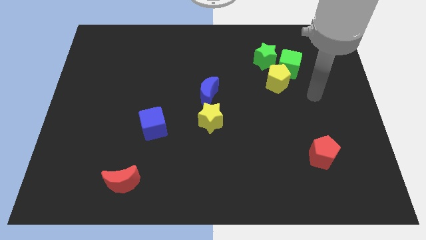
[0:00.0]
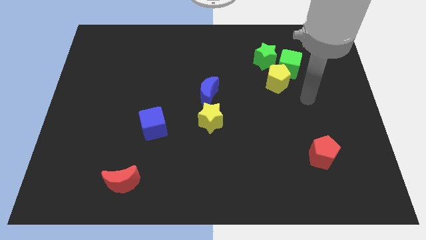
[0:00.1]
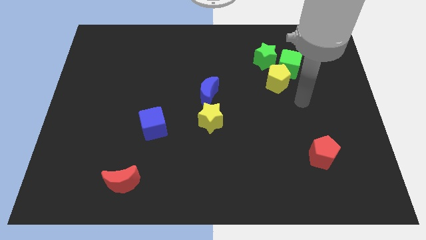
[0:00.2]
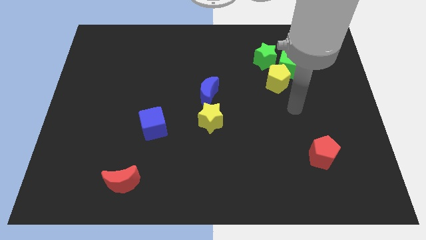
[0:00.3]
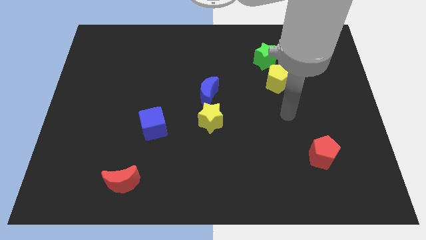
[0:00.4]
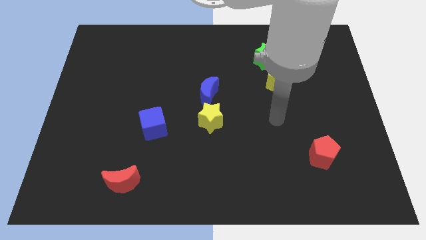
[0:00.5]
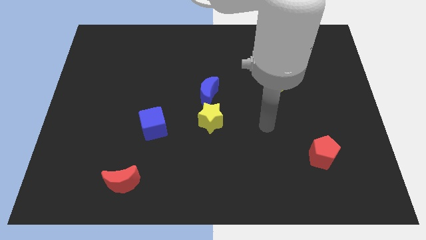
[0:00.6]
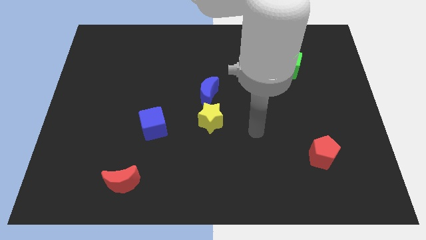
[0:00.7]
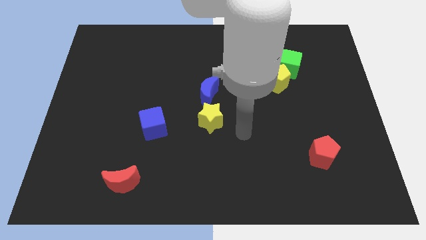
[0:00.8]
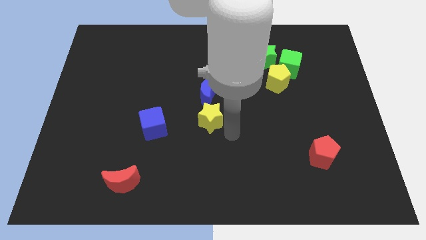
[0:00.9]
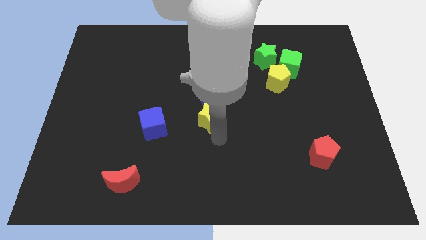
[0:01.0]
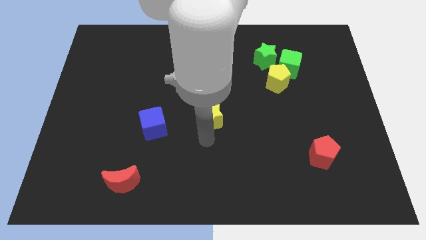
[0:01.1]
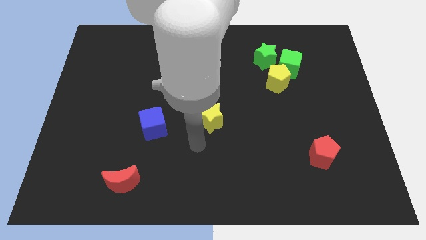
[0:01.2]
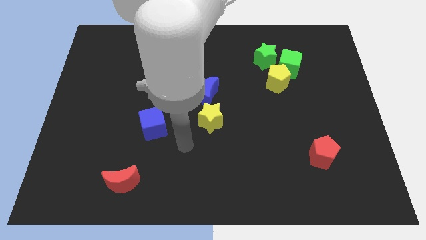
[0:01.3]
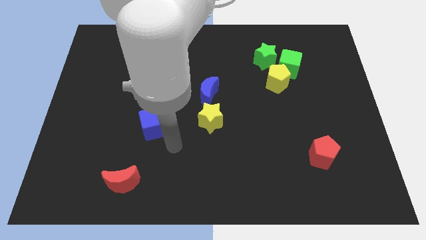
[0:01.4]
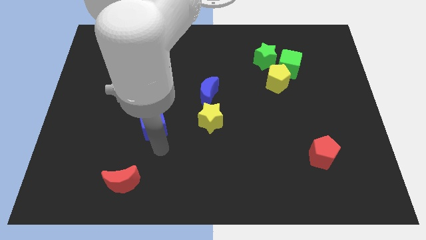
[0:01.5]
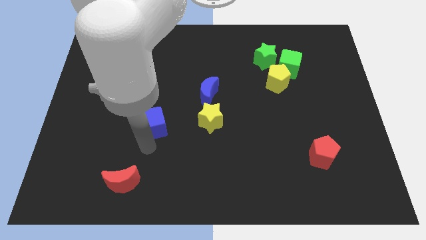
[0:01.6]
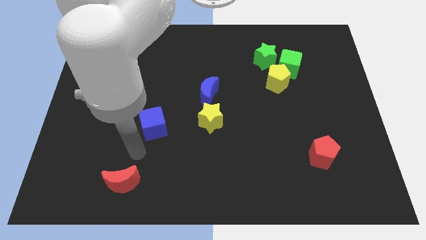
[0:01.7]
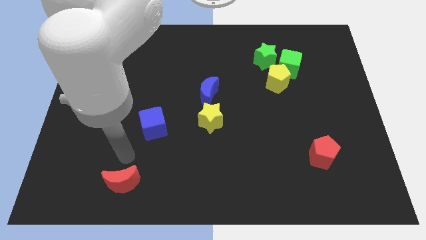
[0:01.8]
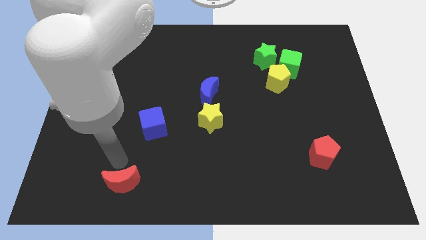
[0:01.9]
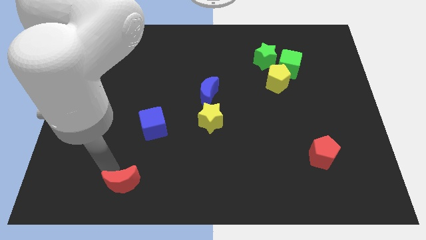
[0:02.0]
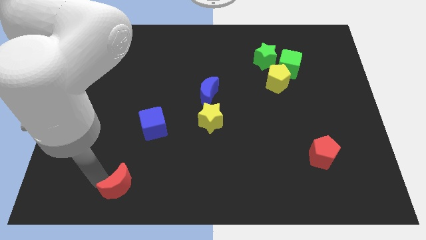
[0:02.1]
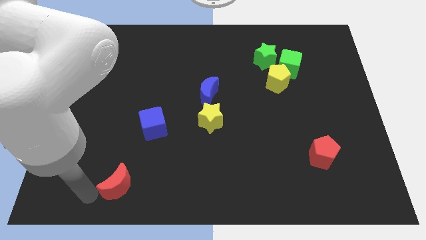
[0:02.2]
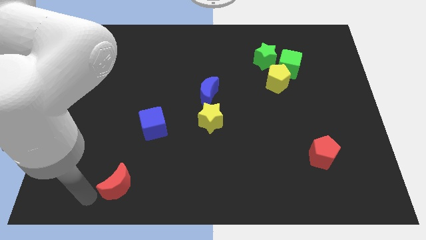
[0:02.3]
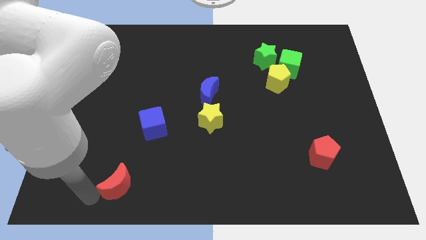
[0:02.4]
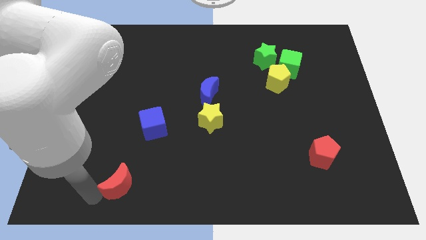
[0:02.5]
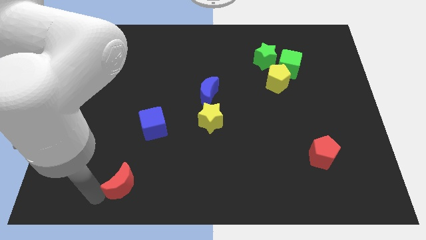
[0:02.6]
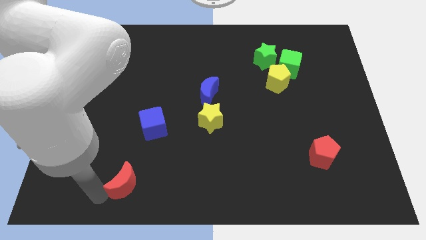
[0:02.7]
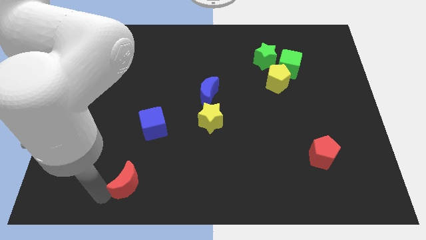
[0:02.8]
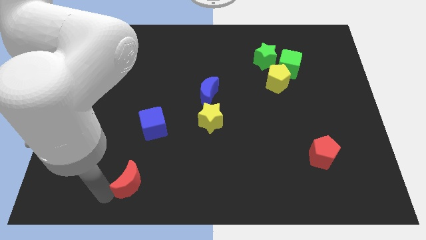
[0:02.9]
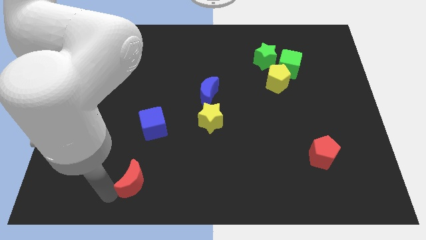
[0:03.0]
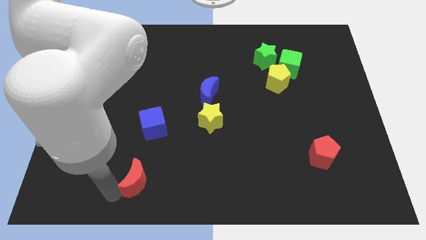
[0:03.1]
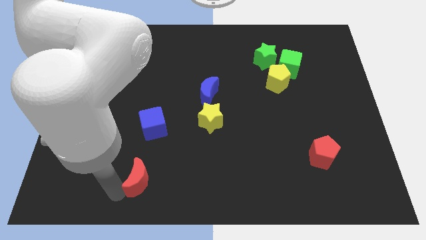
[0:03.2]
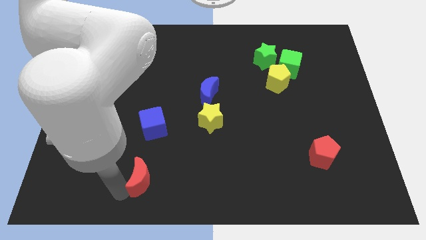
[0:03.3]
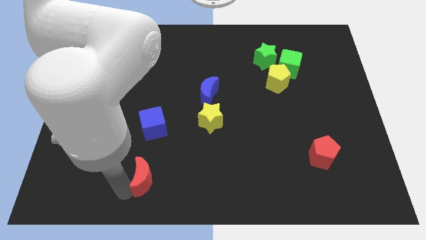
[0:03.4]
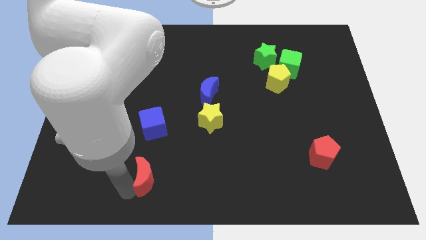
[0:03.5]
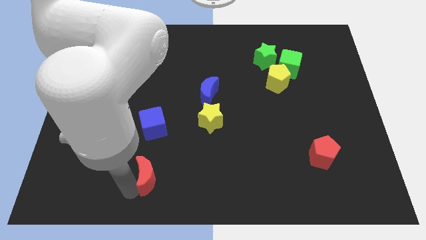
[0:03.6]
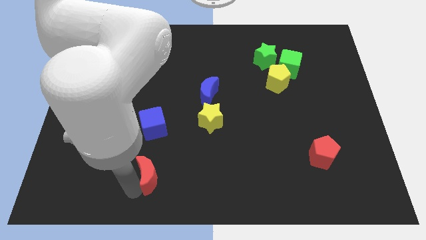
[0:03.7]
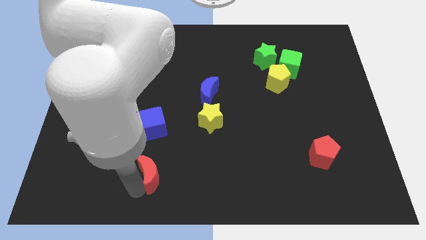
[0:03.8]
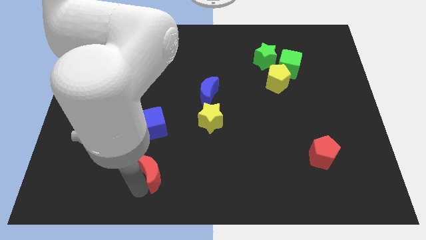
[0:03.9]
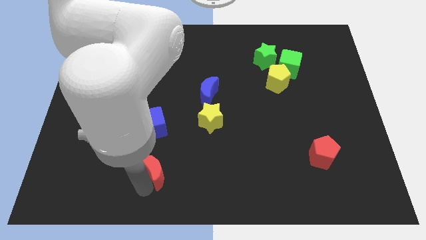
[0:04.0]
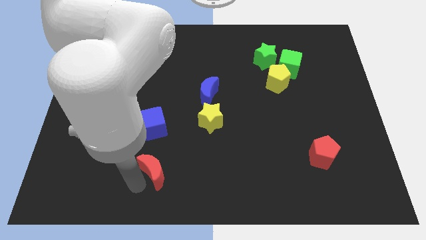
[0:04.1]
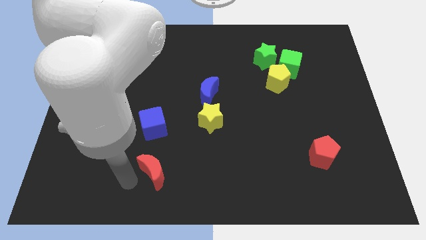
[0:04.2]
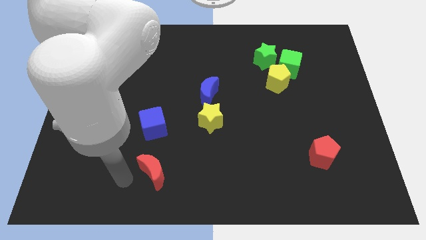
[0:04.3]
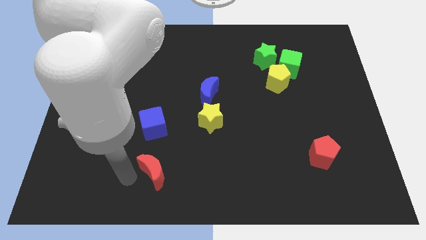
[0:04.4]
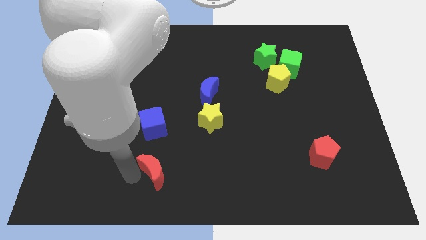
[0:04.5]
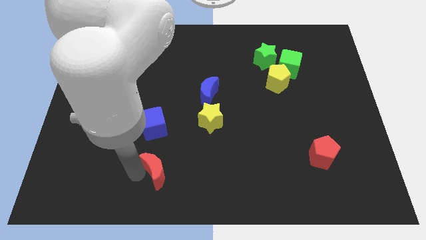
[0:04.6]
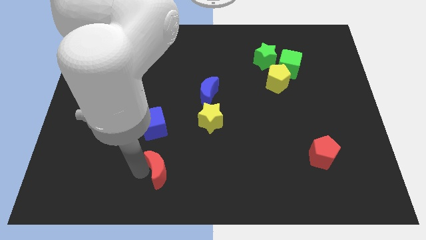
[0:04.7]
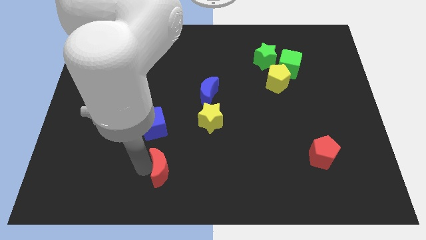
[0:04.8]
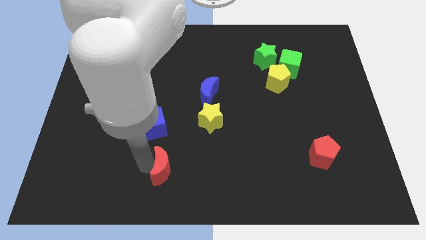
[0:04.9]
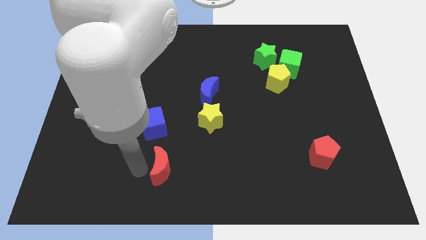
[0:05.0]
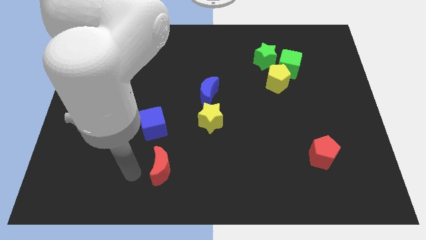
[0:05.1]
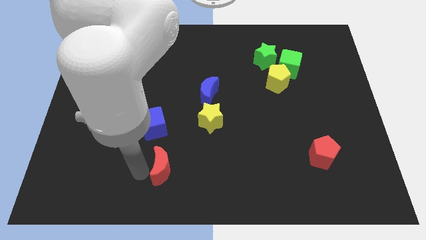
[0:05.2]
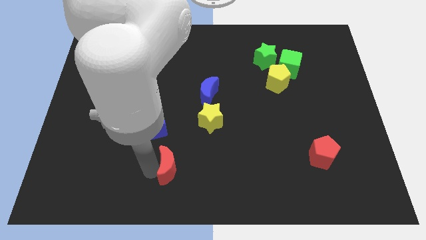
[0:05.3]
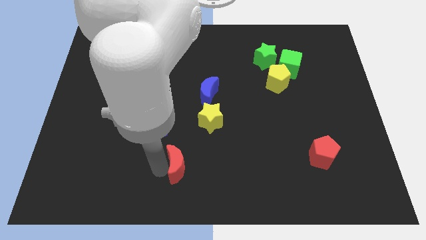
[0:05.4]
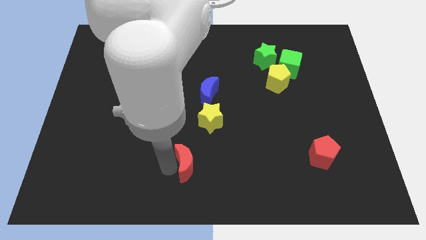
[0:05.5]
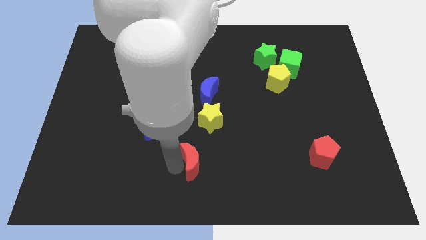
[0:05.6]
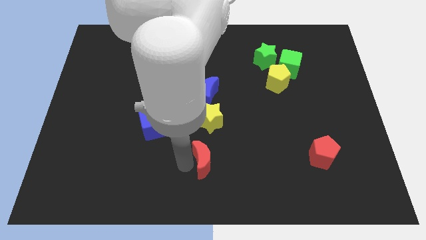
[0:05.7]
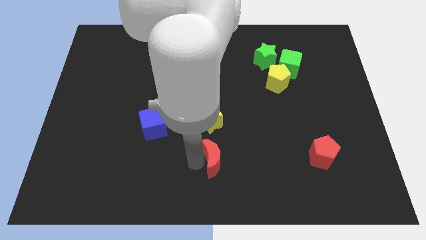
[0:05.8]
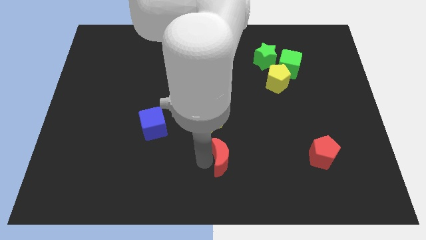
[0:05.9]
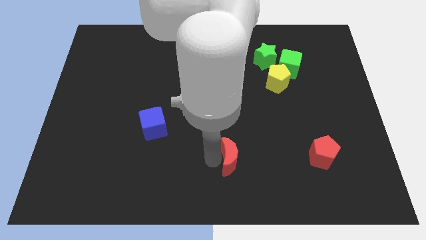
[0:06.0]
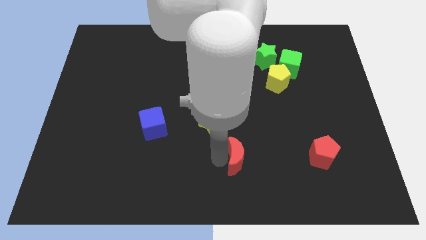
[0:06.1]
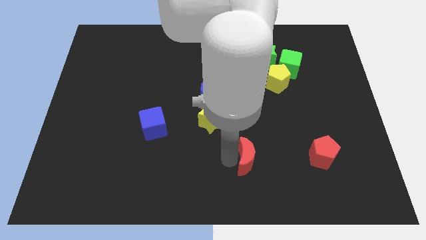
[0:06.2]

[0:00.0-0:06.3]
slide the red moon just left of the red pentagon

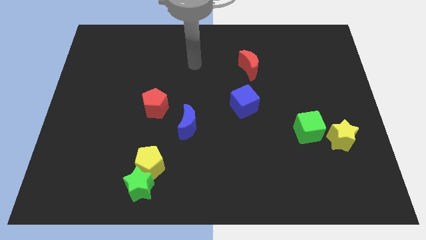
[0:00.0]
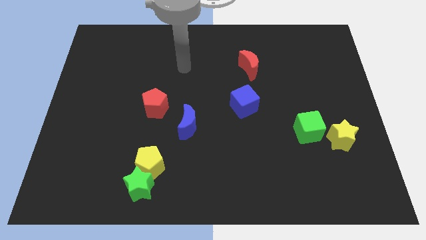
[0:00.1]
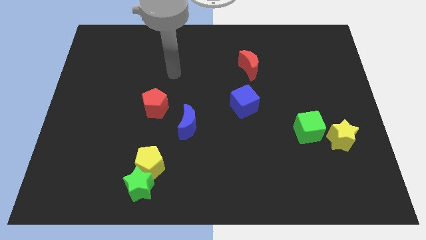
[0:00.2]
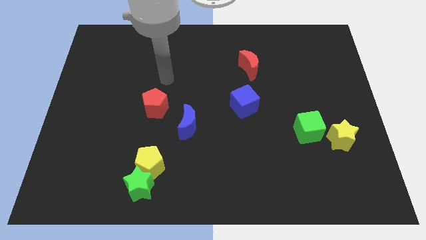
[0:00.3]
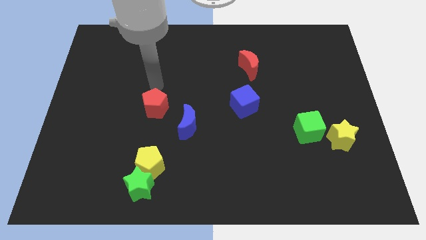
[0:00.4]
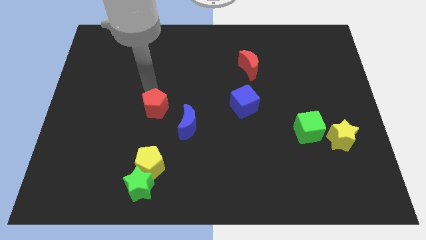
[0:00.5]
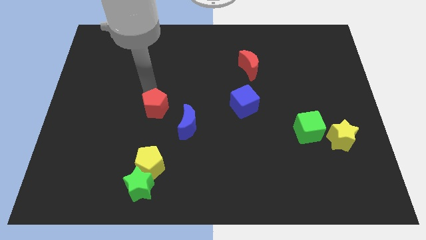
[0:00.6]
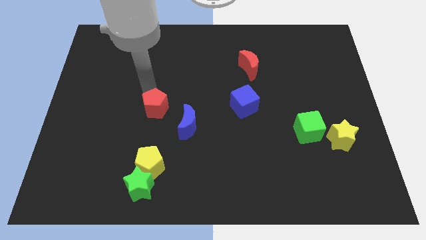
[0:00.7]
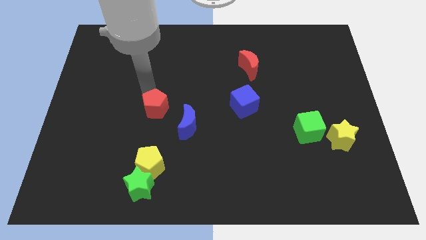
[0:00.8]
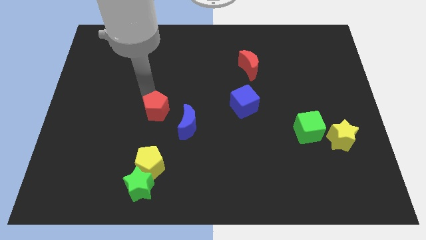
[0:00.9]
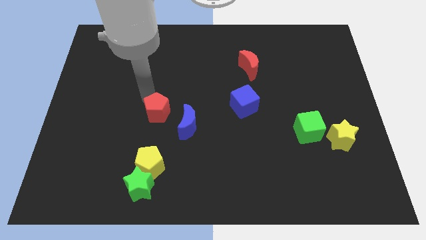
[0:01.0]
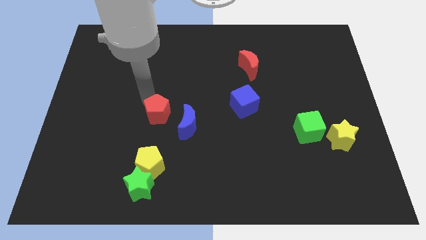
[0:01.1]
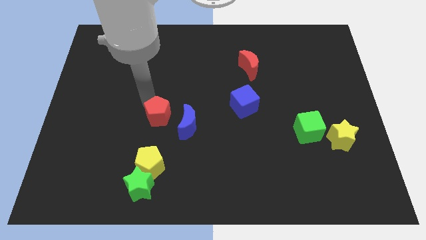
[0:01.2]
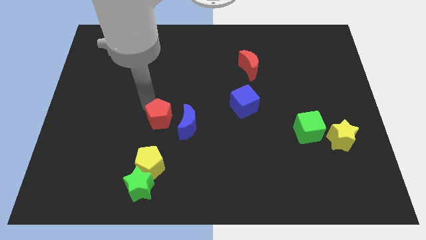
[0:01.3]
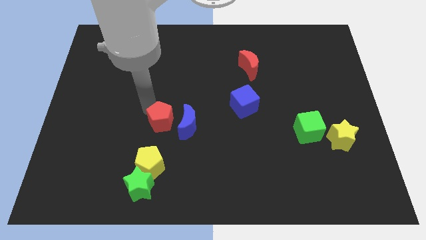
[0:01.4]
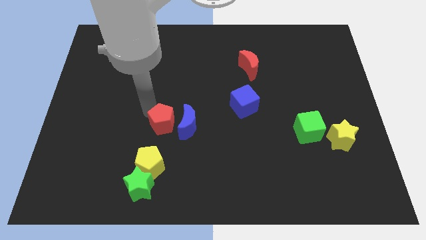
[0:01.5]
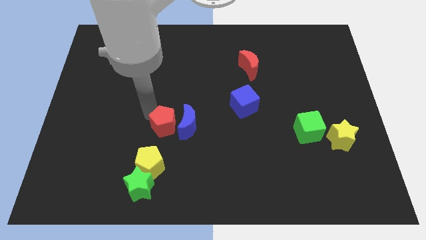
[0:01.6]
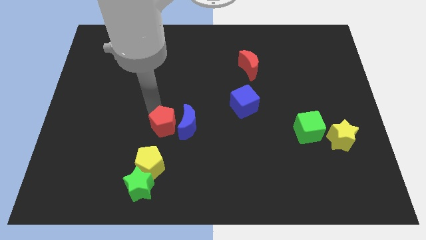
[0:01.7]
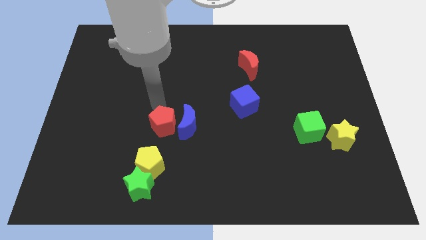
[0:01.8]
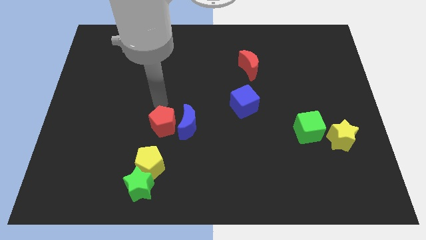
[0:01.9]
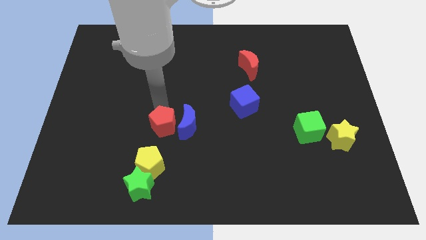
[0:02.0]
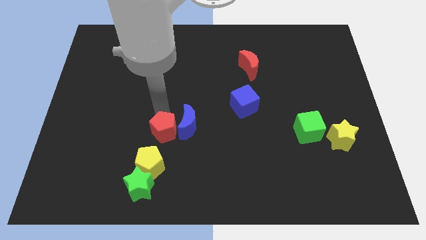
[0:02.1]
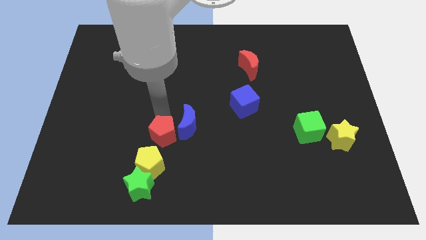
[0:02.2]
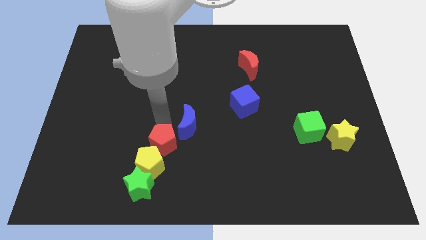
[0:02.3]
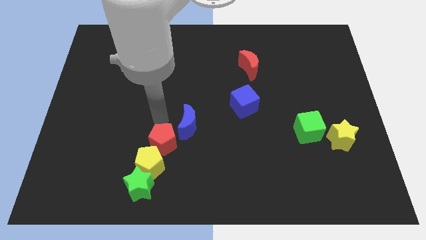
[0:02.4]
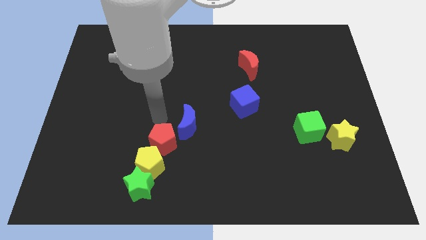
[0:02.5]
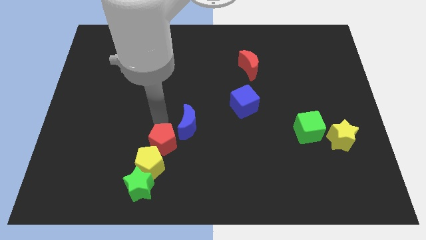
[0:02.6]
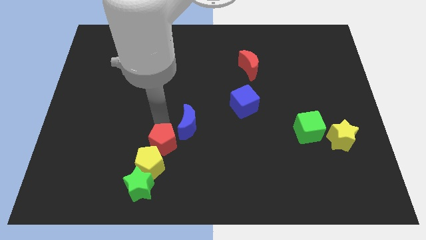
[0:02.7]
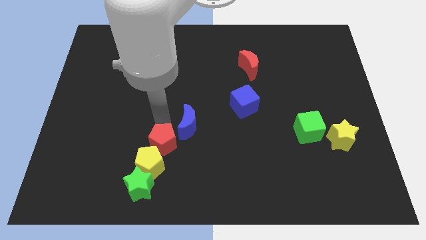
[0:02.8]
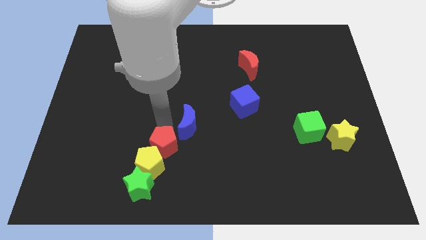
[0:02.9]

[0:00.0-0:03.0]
push the red pentagon to the top right of the green star
